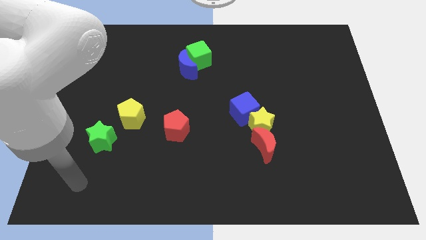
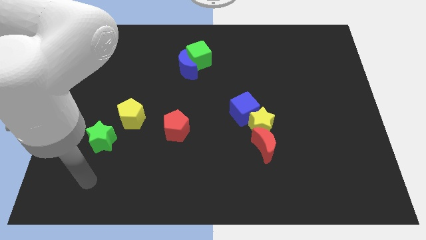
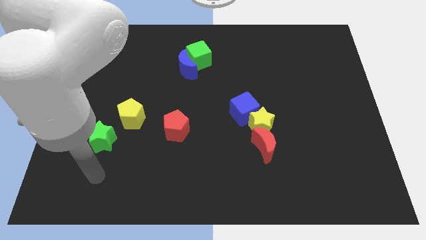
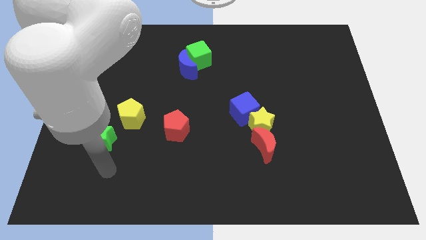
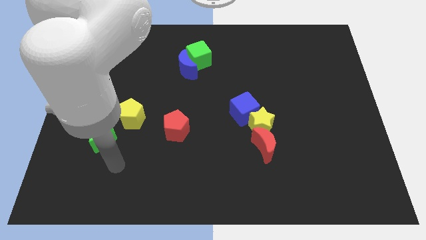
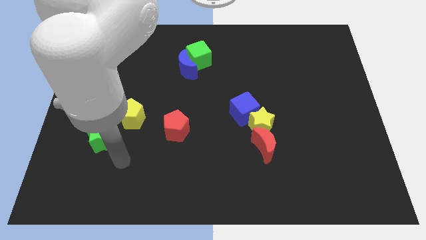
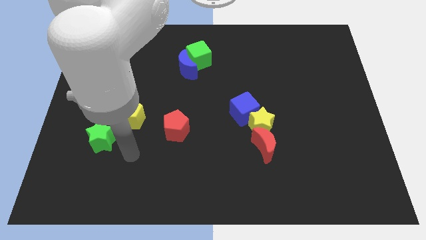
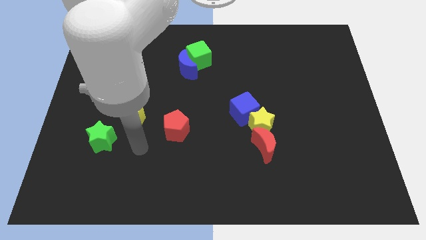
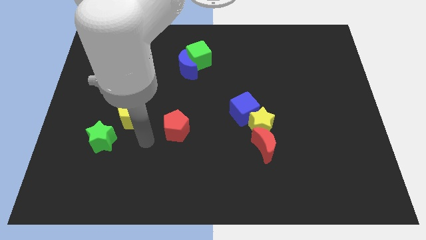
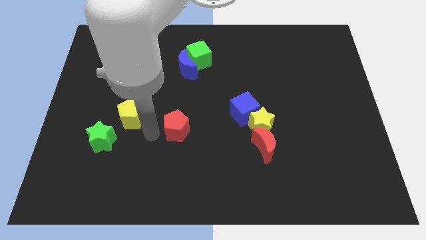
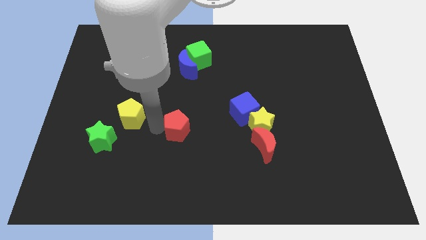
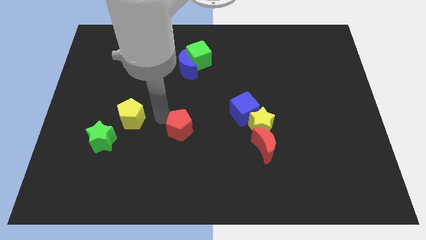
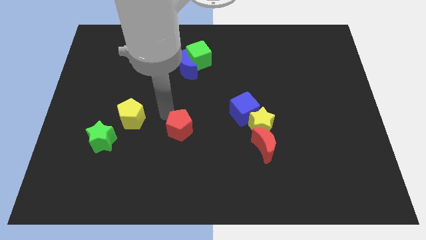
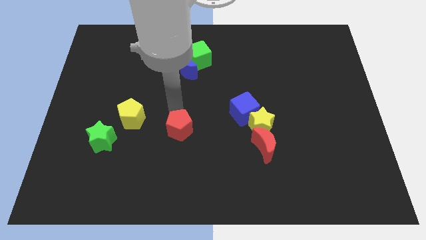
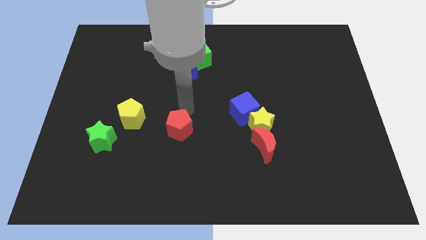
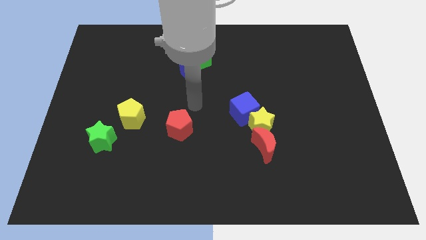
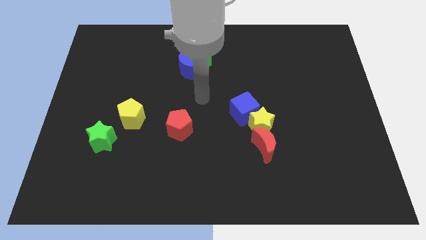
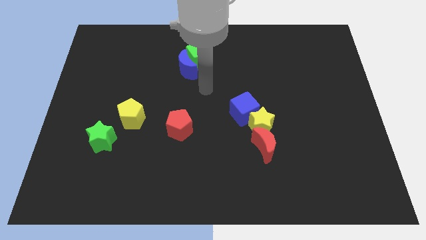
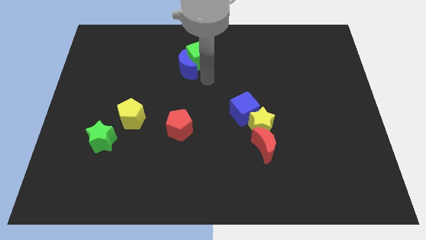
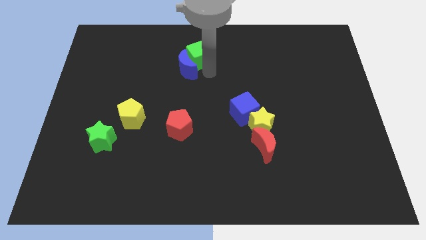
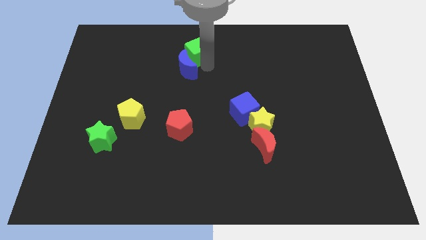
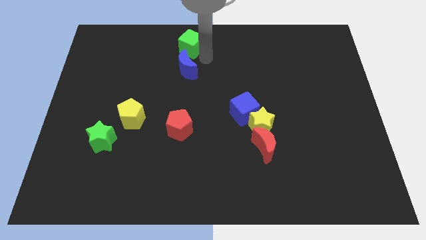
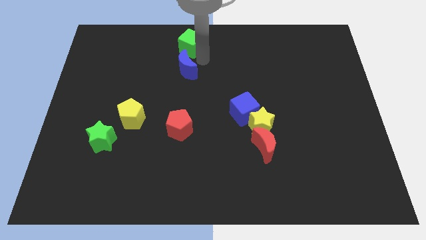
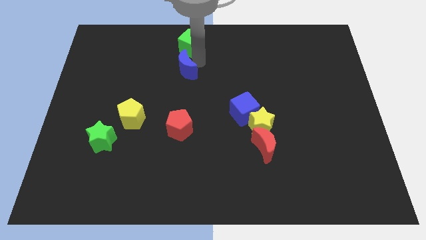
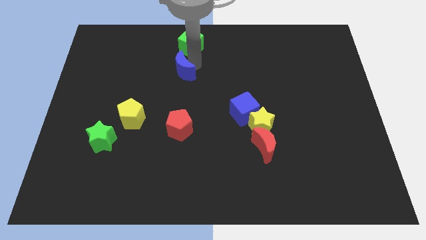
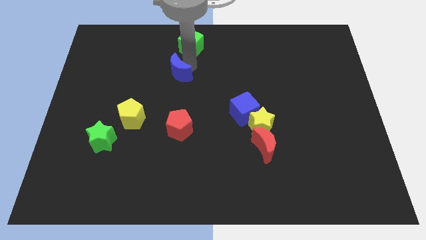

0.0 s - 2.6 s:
move the blue moon away from the green cube

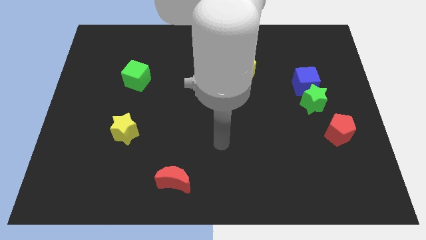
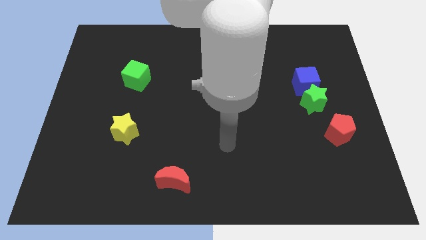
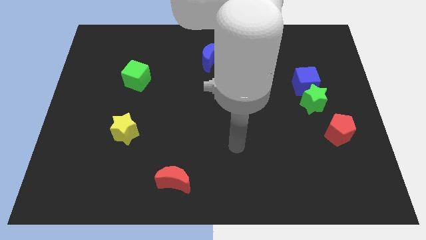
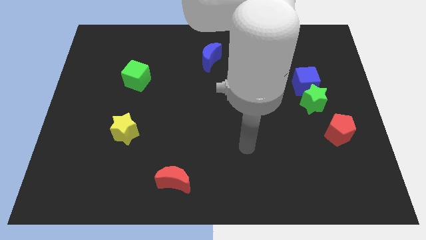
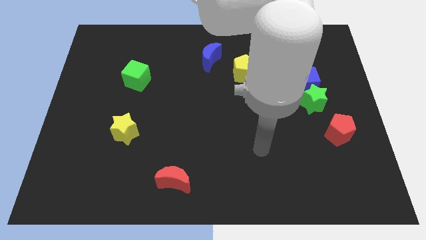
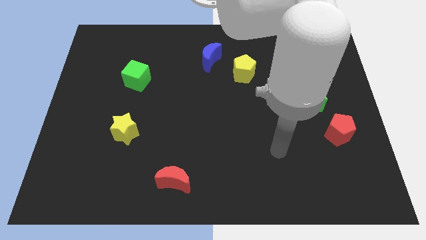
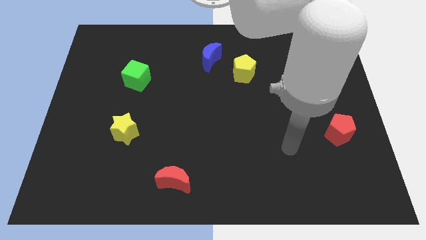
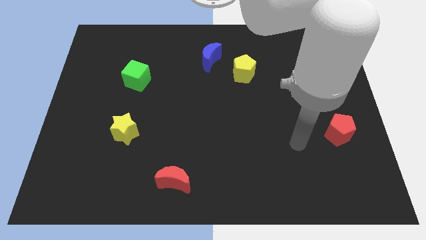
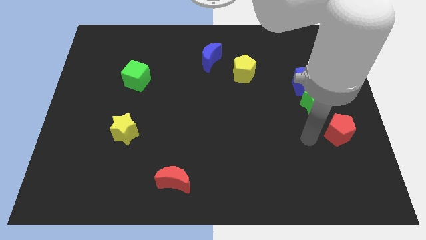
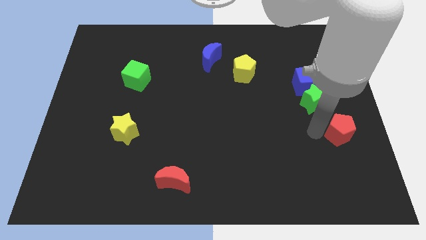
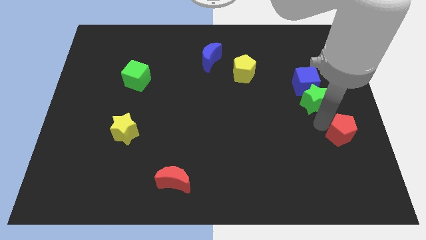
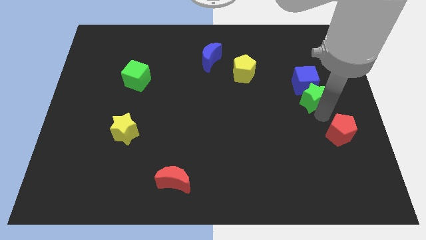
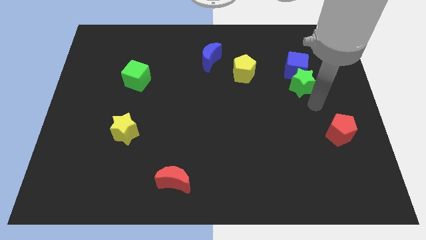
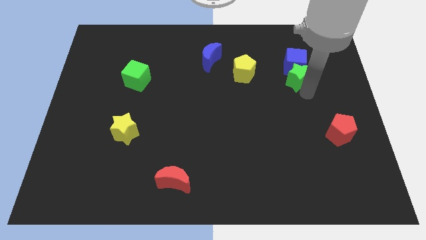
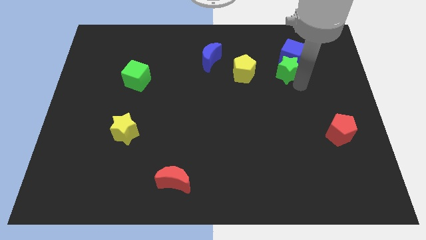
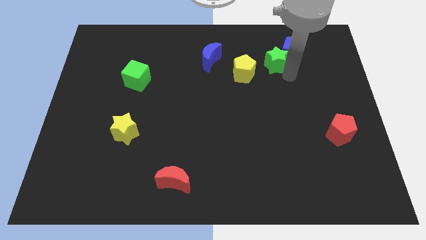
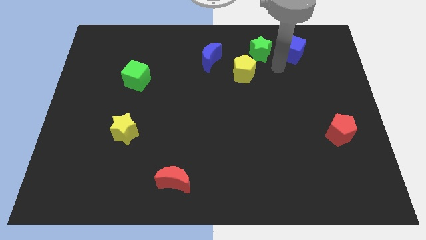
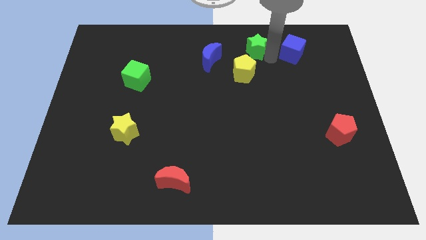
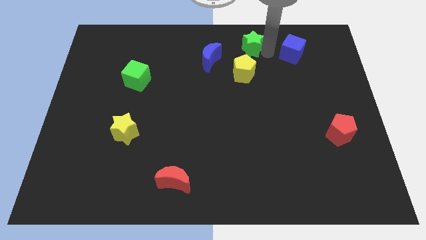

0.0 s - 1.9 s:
pull the blue cube apart from the green star

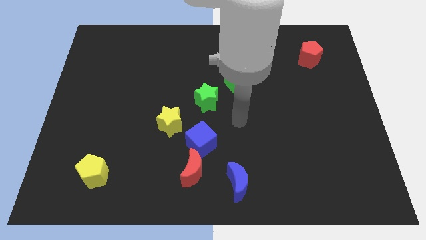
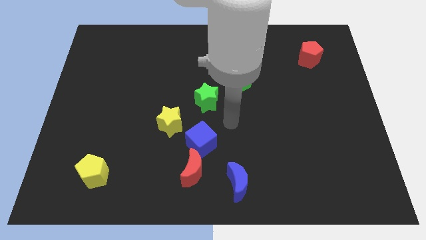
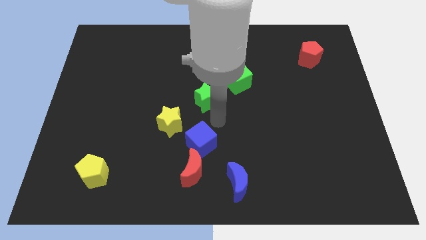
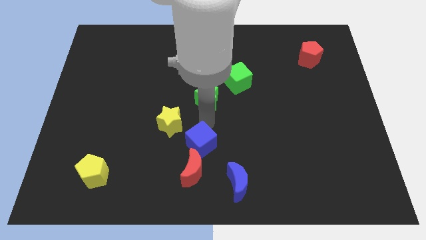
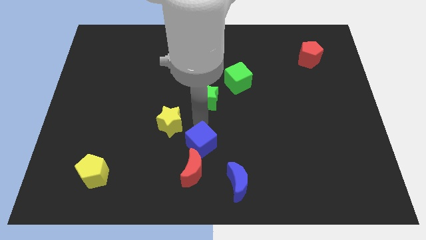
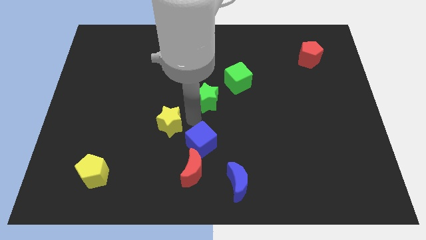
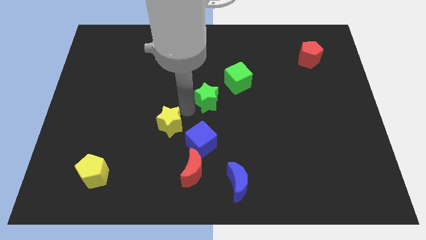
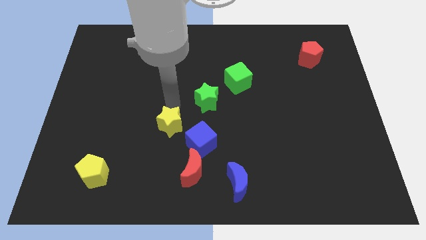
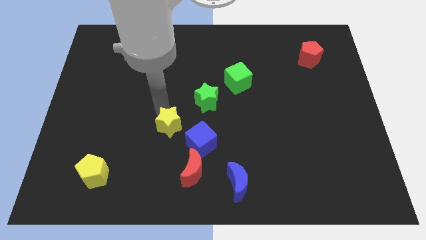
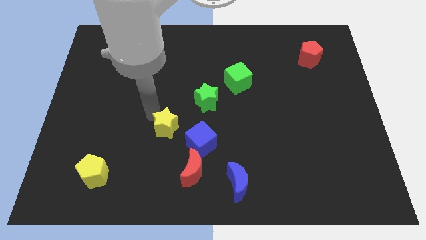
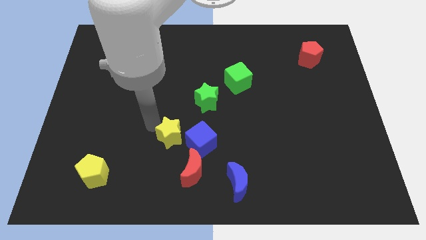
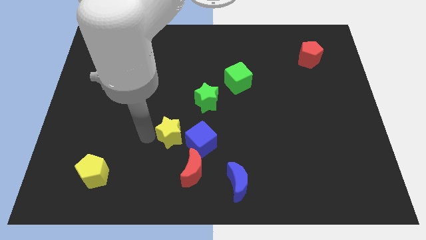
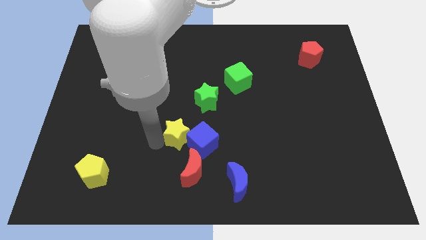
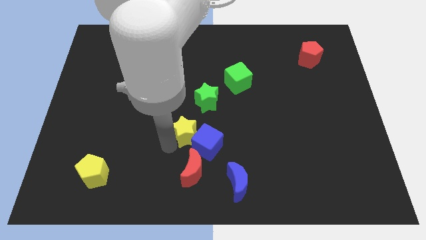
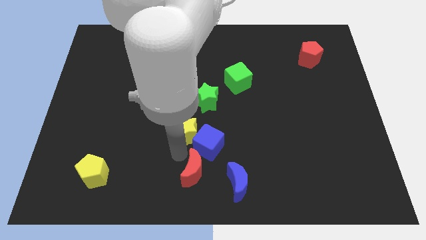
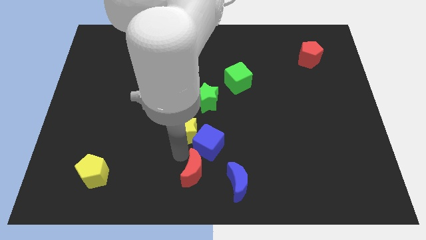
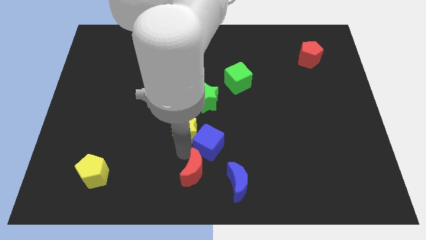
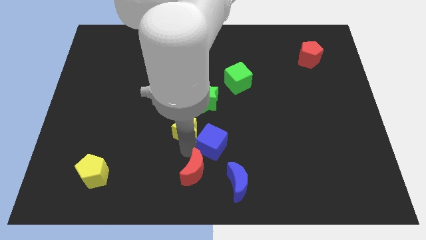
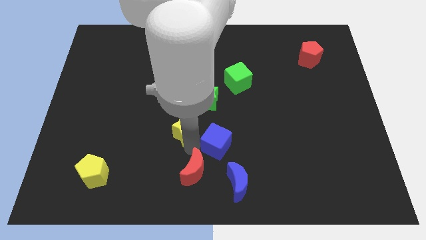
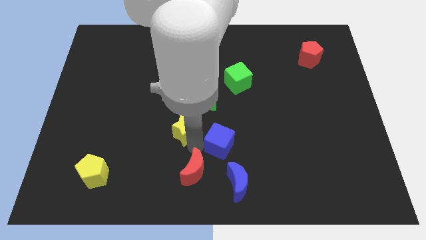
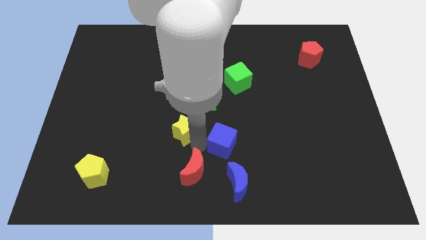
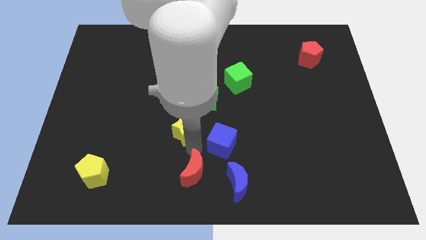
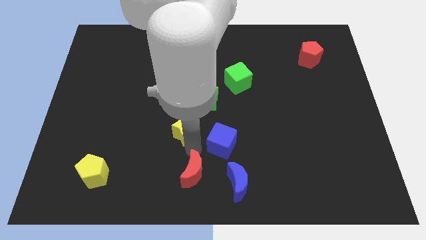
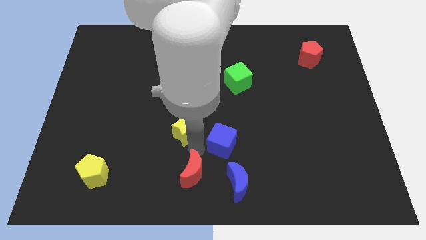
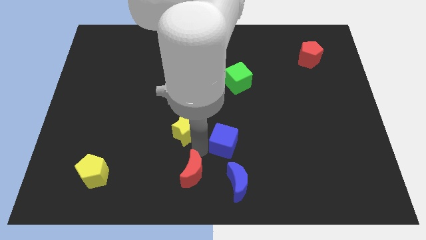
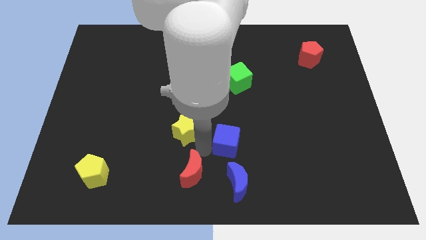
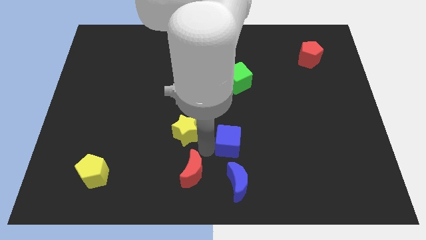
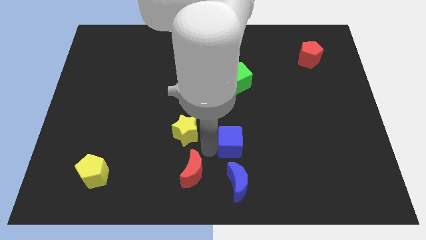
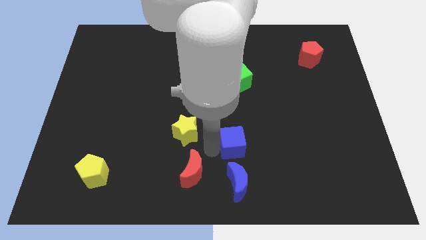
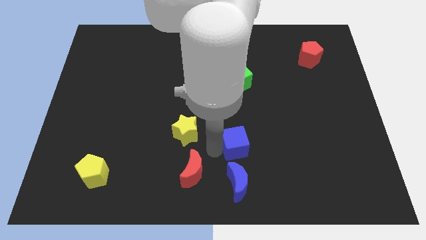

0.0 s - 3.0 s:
move the blue cube away from the red moon and yellow star

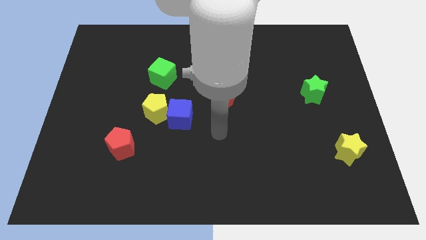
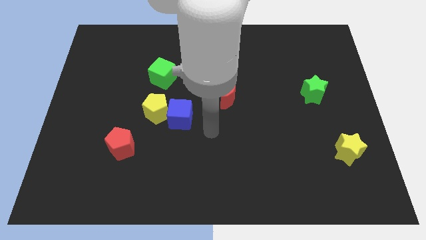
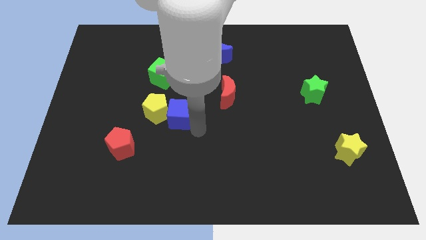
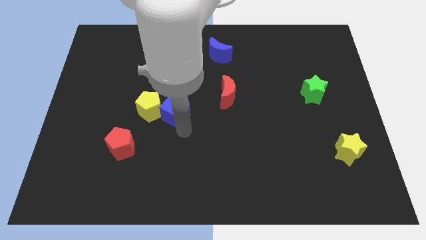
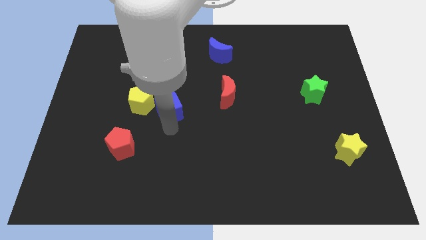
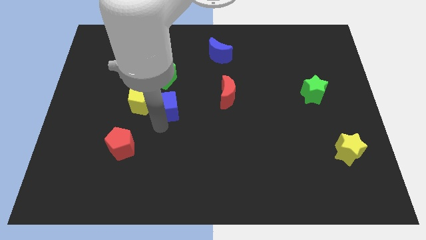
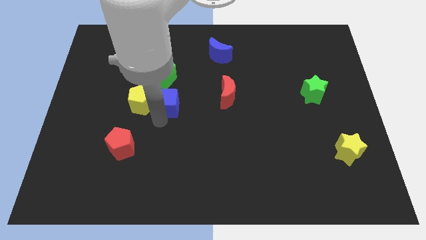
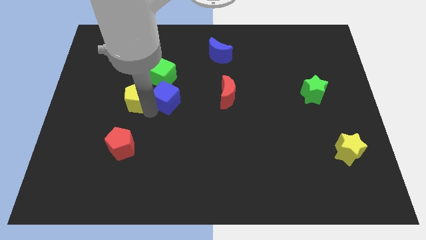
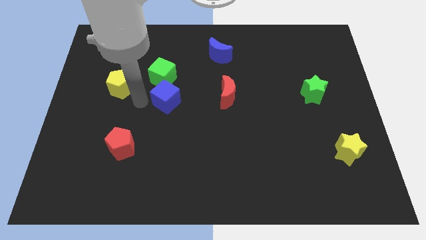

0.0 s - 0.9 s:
pull the blue cube apart from the yellow pentagon

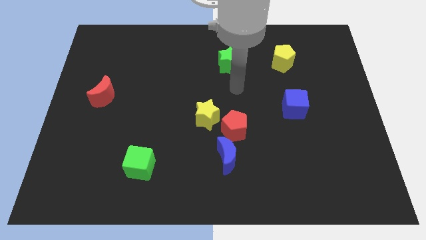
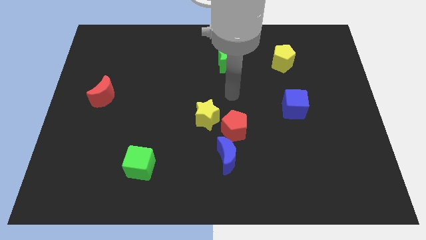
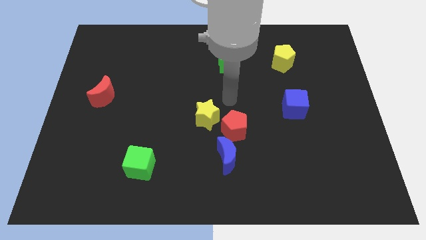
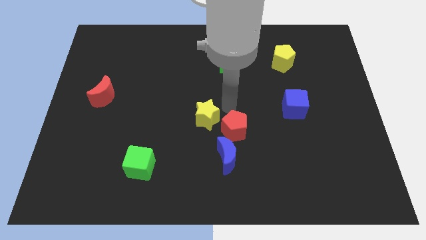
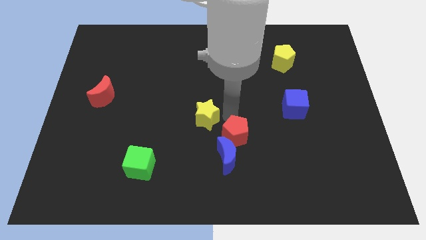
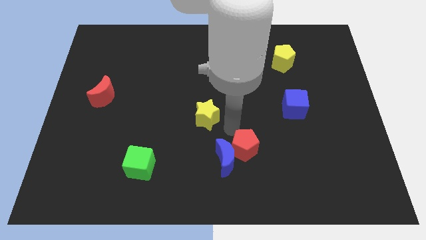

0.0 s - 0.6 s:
move the yellow star away from the red pentagon

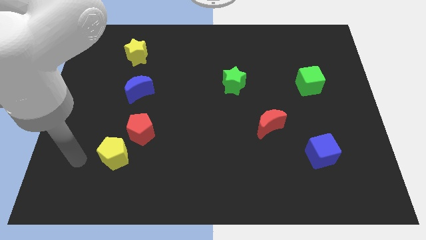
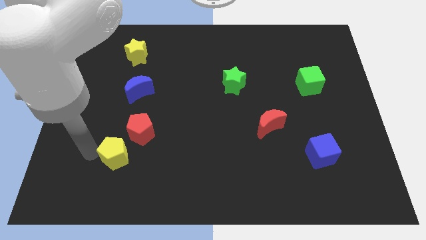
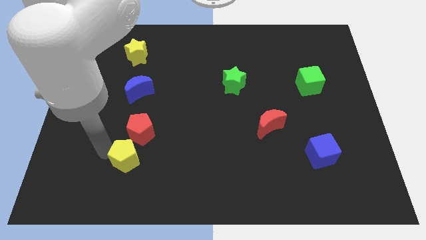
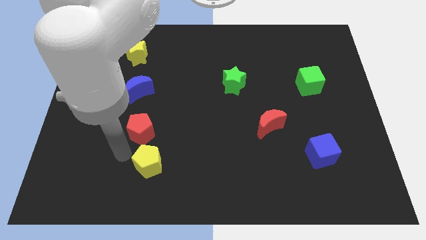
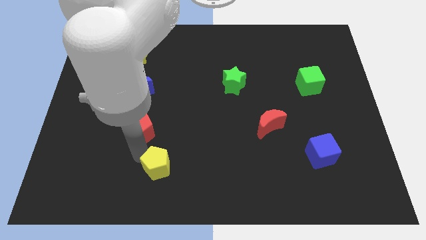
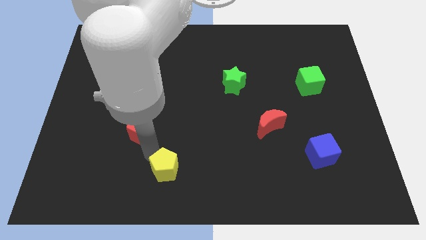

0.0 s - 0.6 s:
separate the red pentagon from the yellow pentagon
